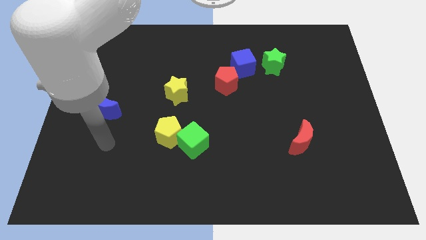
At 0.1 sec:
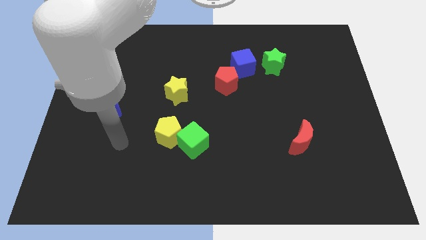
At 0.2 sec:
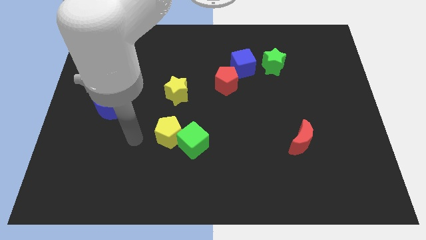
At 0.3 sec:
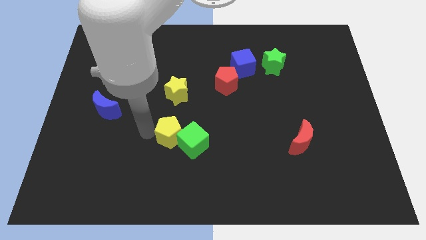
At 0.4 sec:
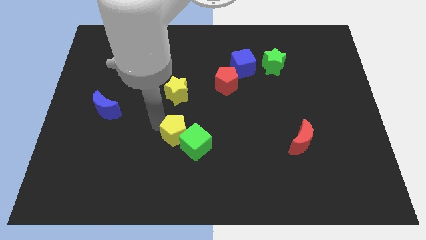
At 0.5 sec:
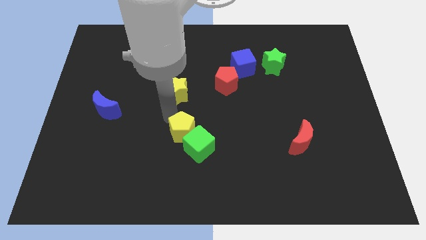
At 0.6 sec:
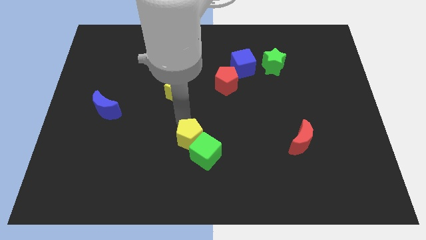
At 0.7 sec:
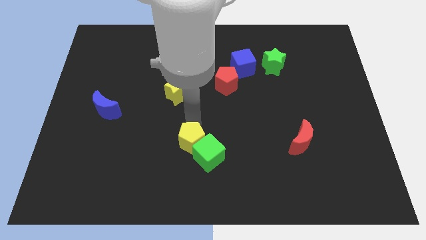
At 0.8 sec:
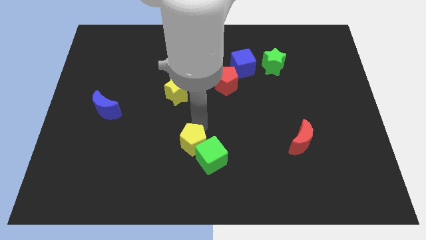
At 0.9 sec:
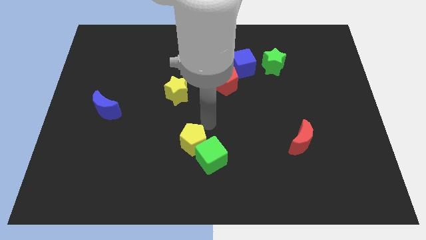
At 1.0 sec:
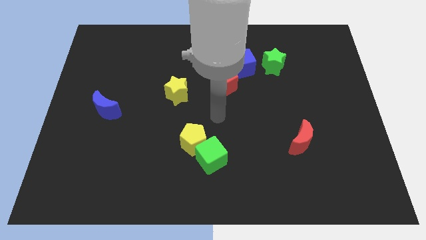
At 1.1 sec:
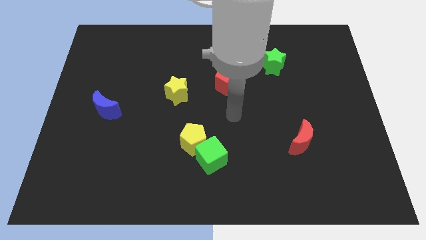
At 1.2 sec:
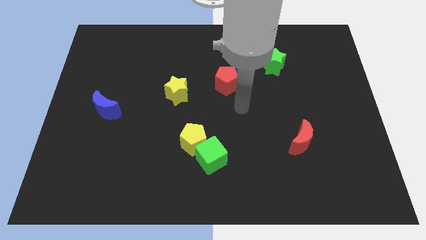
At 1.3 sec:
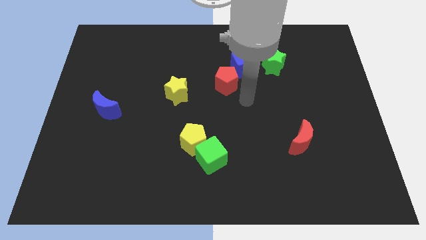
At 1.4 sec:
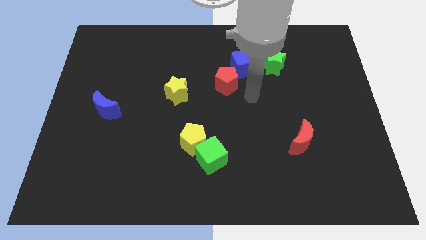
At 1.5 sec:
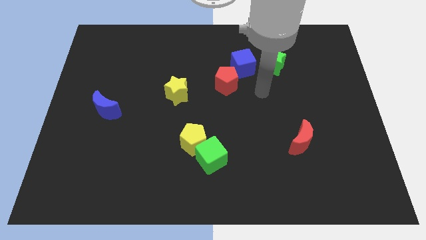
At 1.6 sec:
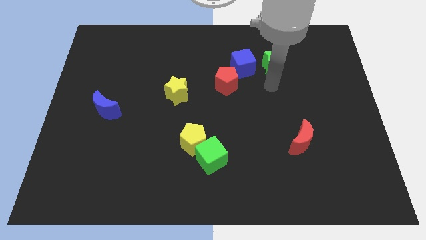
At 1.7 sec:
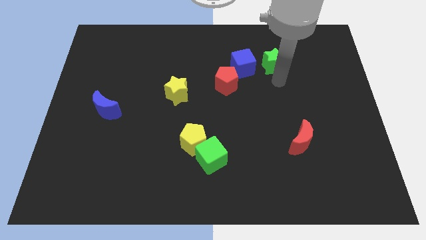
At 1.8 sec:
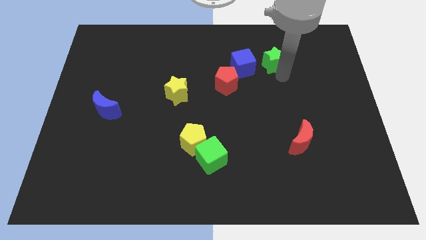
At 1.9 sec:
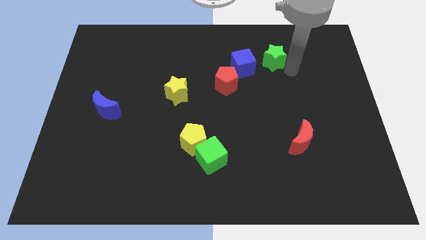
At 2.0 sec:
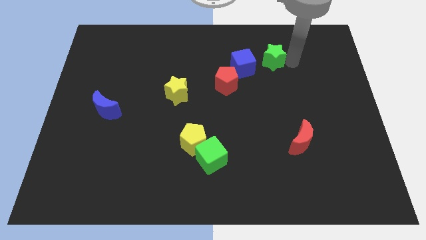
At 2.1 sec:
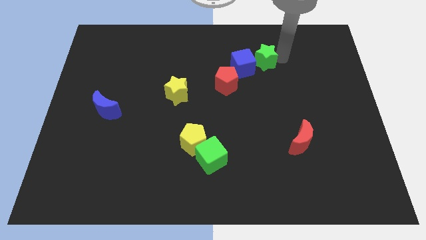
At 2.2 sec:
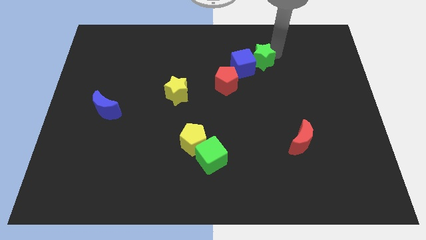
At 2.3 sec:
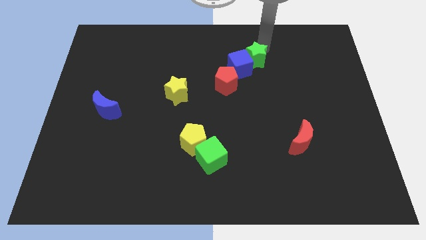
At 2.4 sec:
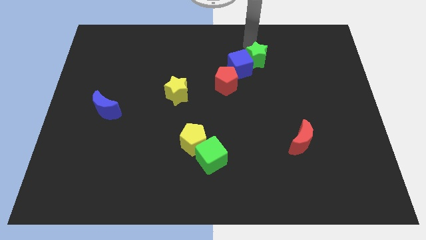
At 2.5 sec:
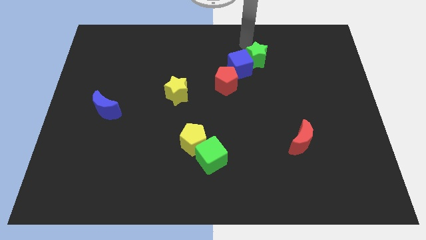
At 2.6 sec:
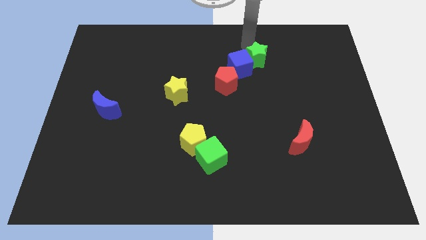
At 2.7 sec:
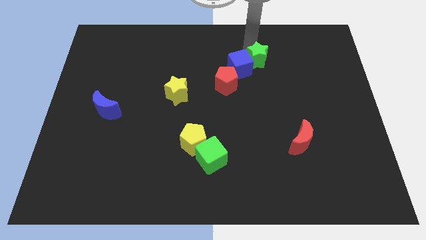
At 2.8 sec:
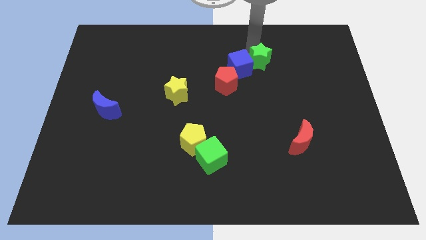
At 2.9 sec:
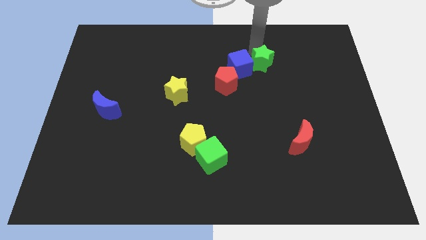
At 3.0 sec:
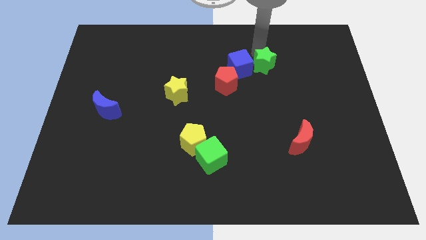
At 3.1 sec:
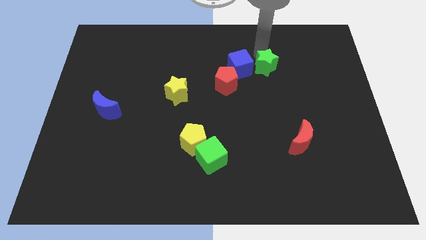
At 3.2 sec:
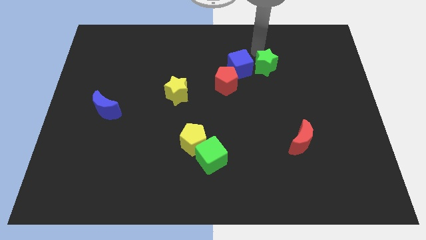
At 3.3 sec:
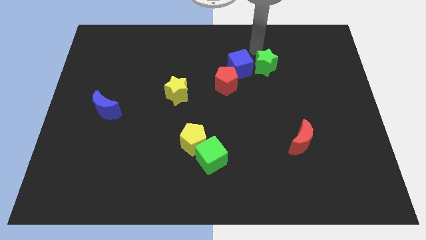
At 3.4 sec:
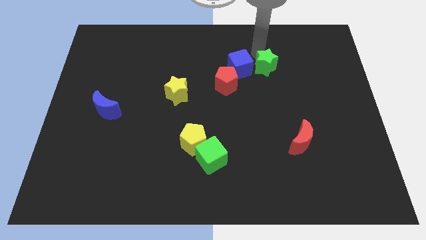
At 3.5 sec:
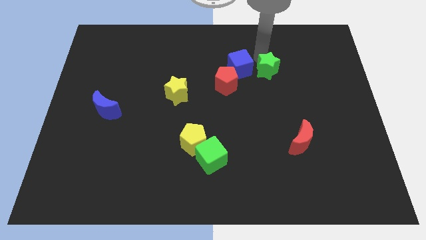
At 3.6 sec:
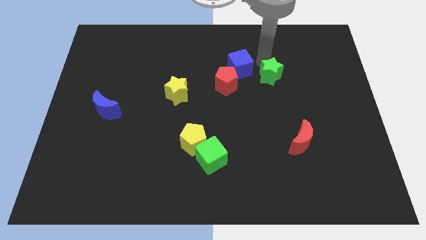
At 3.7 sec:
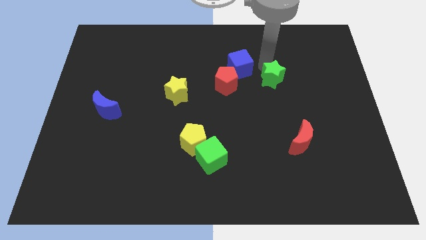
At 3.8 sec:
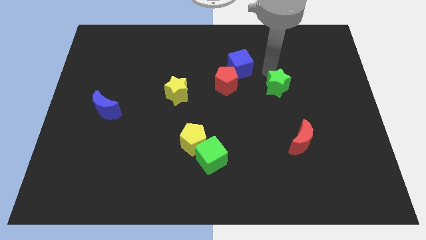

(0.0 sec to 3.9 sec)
slightly push the green star down

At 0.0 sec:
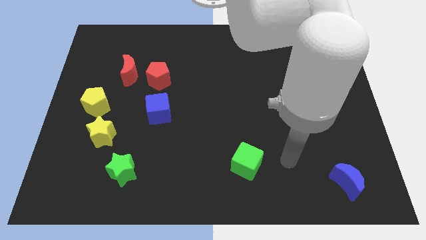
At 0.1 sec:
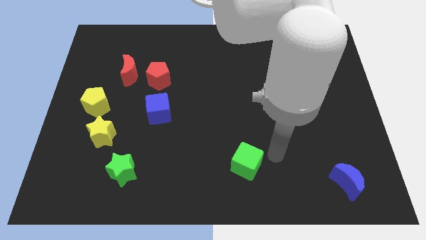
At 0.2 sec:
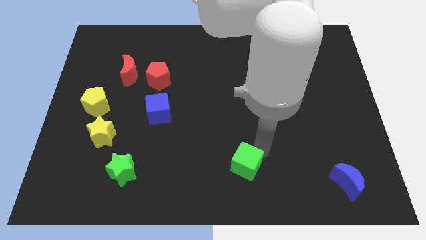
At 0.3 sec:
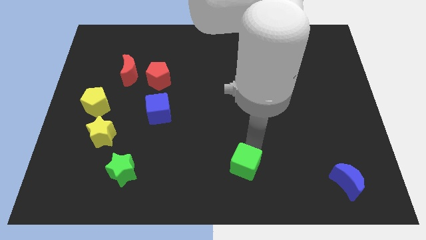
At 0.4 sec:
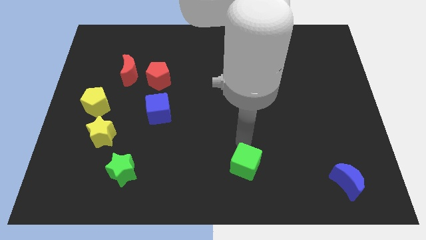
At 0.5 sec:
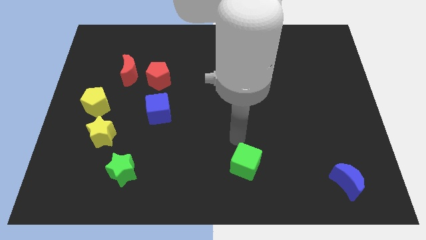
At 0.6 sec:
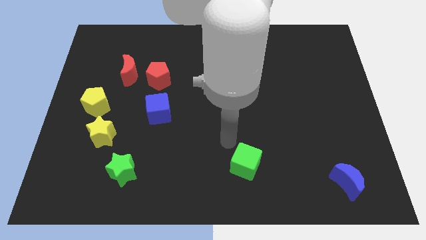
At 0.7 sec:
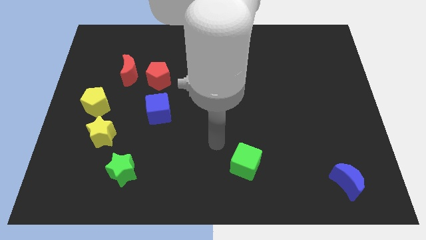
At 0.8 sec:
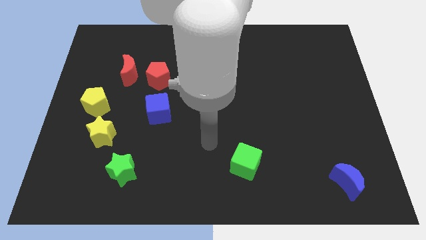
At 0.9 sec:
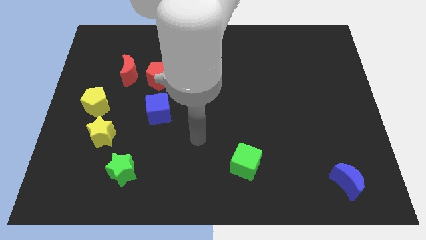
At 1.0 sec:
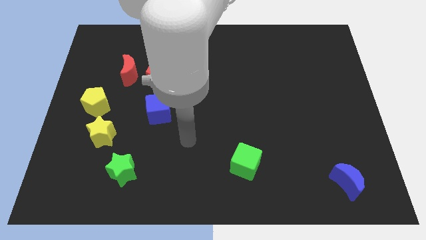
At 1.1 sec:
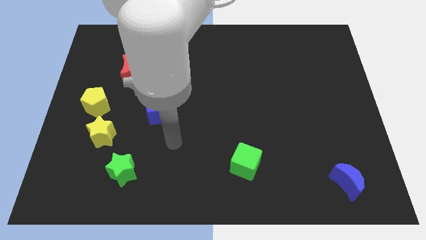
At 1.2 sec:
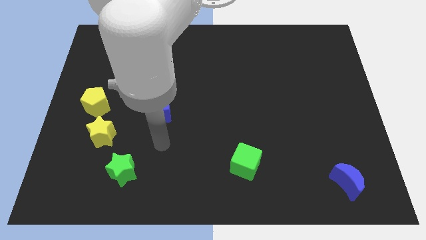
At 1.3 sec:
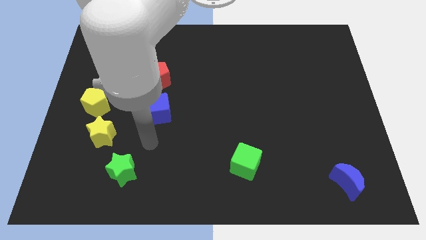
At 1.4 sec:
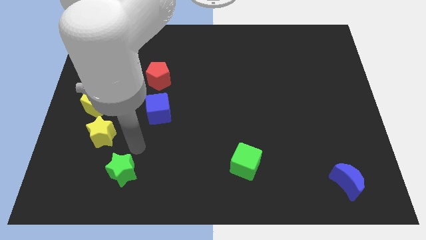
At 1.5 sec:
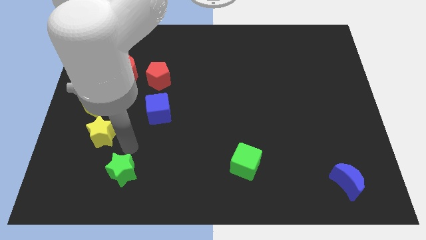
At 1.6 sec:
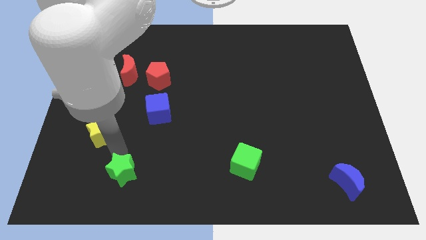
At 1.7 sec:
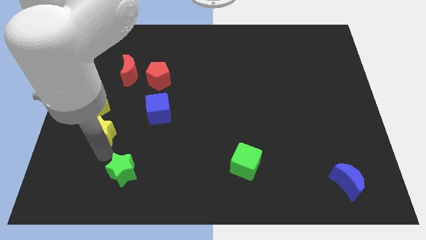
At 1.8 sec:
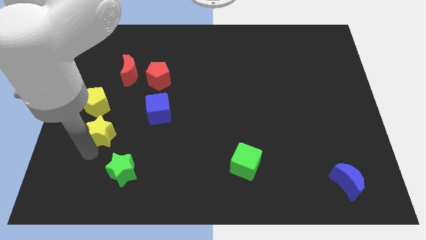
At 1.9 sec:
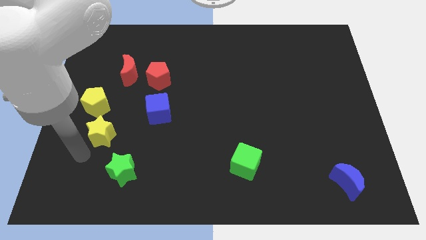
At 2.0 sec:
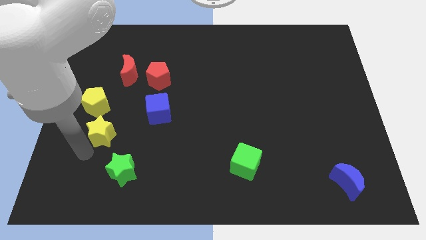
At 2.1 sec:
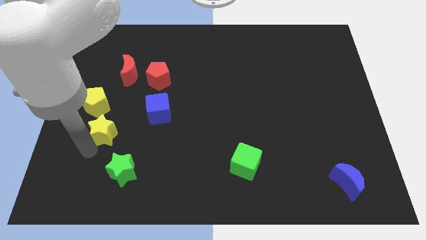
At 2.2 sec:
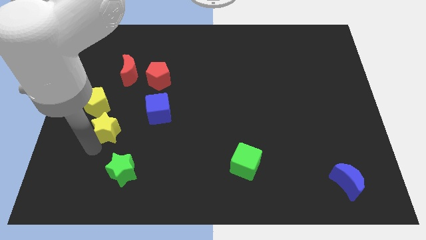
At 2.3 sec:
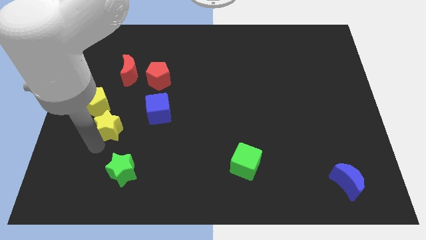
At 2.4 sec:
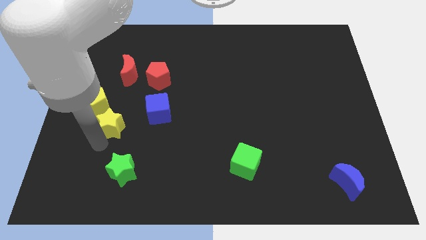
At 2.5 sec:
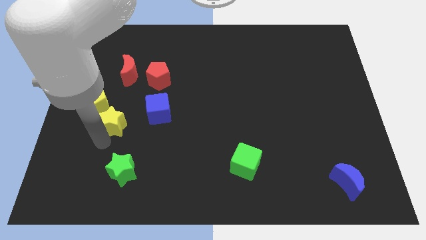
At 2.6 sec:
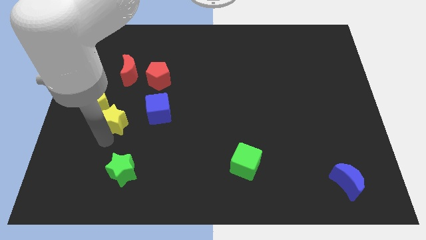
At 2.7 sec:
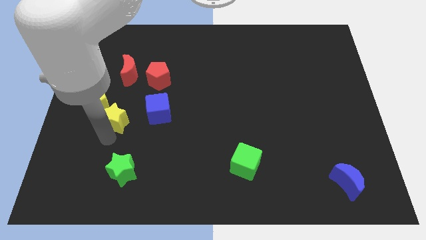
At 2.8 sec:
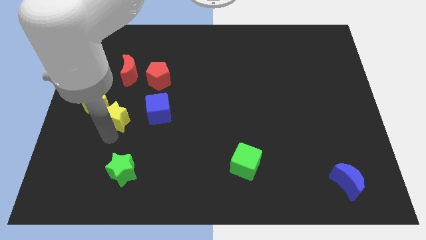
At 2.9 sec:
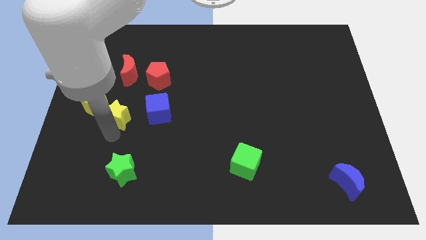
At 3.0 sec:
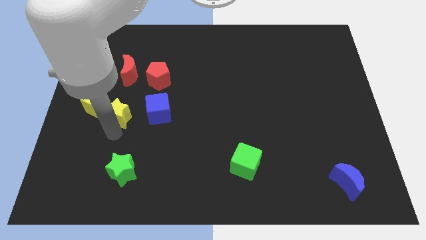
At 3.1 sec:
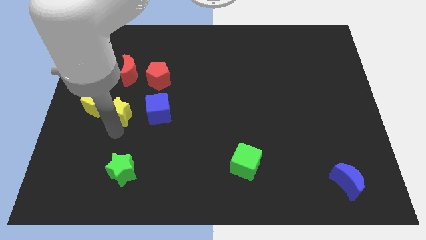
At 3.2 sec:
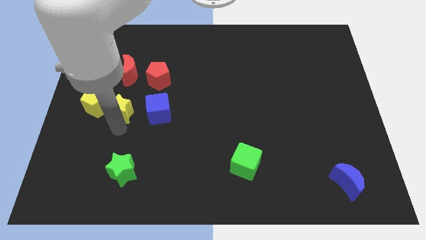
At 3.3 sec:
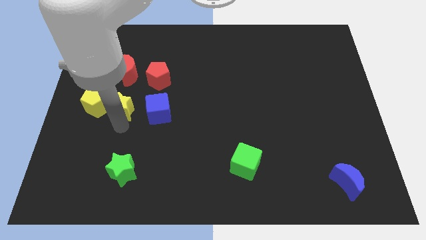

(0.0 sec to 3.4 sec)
slide the yellow star a little bit diagonally upwards and right

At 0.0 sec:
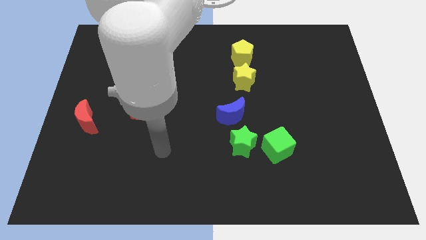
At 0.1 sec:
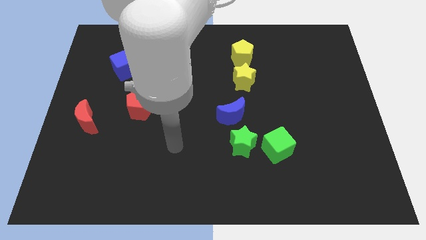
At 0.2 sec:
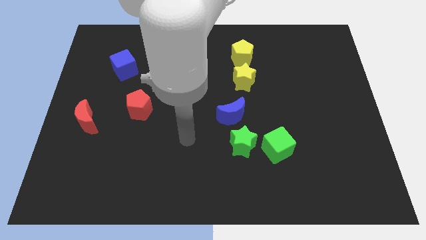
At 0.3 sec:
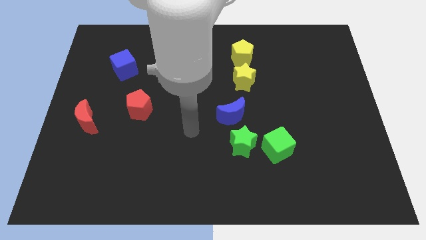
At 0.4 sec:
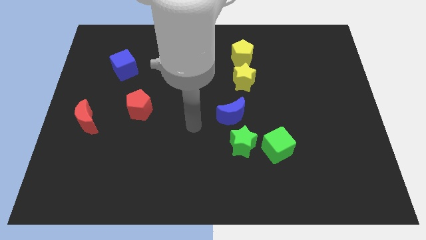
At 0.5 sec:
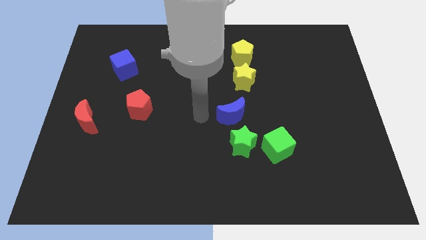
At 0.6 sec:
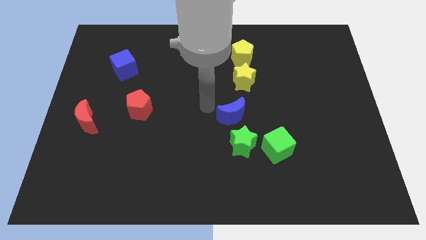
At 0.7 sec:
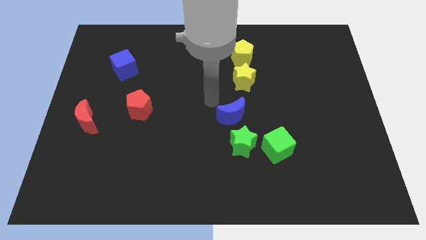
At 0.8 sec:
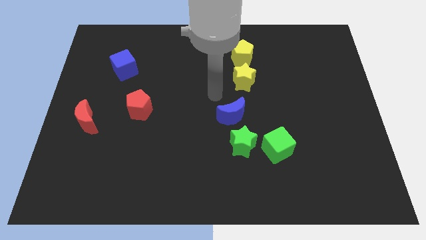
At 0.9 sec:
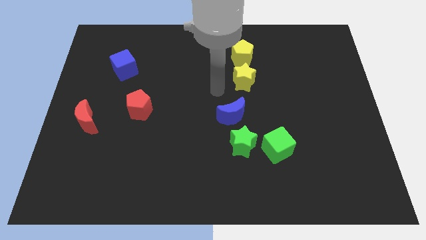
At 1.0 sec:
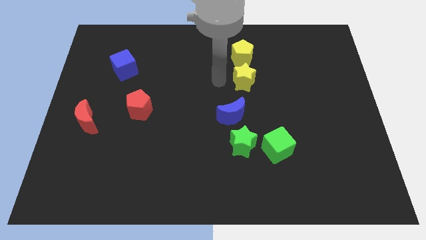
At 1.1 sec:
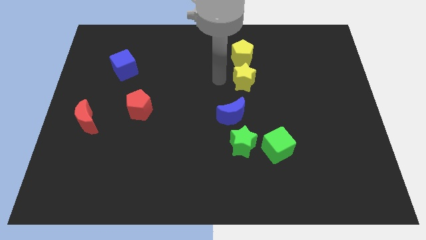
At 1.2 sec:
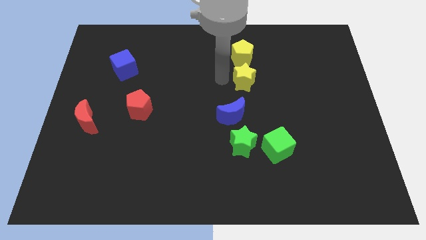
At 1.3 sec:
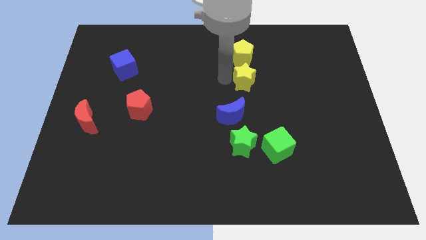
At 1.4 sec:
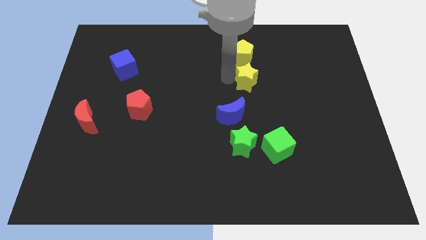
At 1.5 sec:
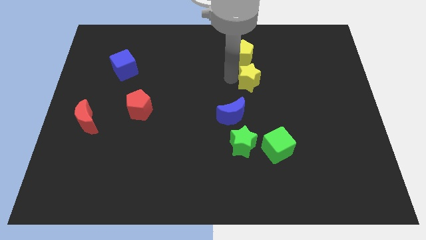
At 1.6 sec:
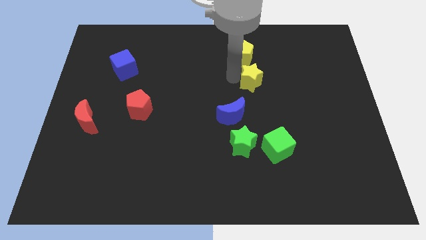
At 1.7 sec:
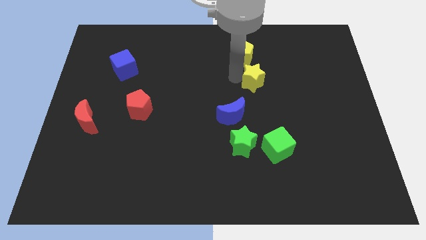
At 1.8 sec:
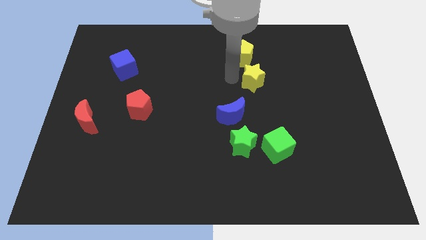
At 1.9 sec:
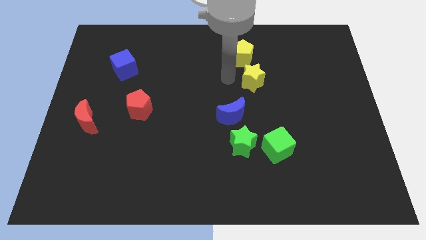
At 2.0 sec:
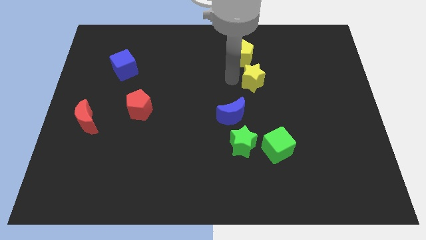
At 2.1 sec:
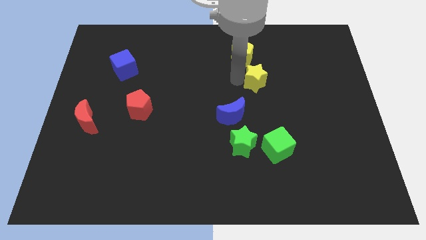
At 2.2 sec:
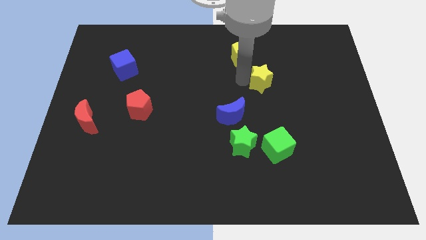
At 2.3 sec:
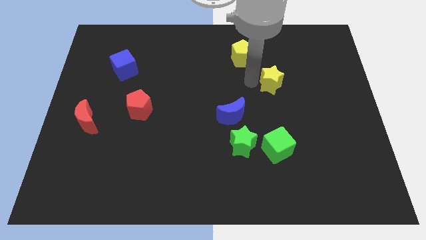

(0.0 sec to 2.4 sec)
slightly move the yellow star right
